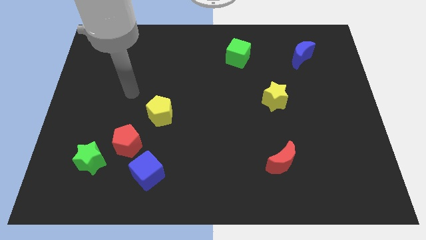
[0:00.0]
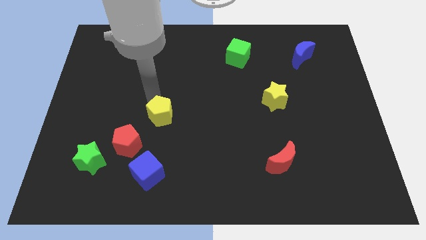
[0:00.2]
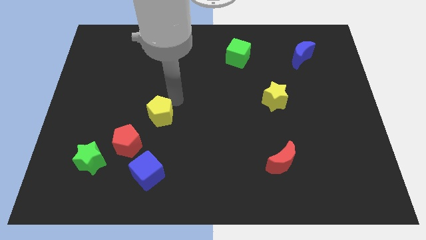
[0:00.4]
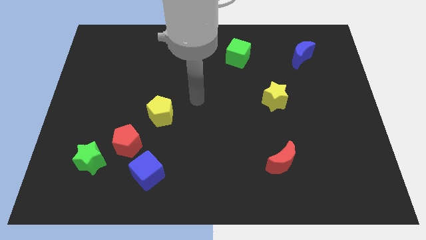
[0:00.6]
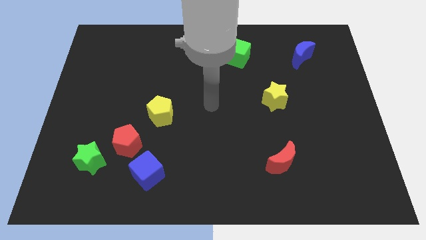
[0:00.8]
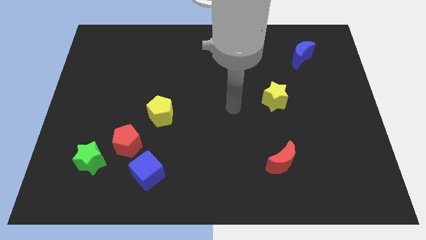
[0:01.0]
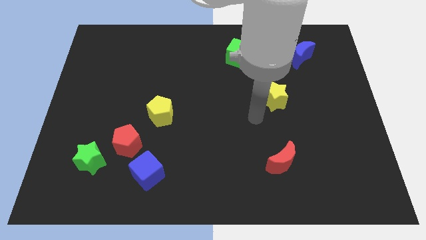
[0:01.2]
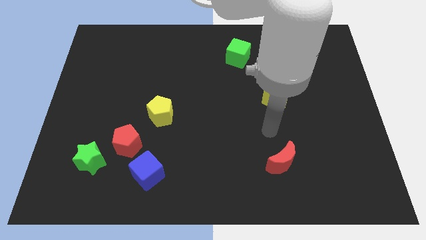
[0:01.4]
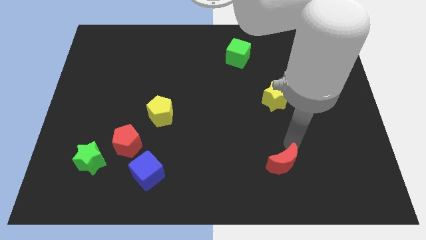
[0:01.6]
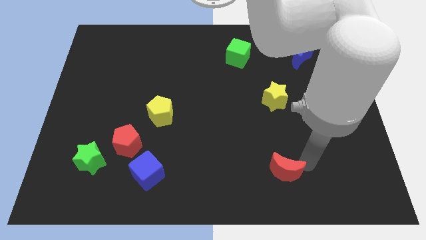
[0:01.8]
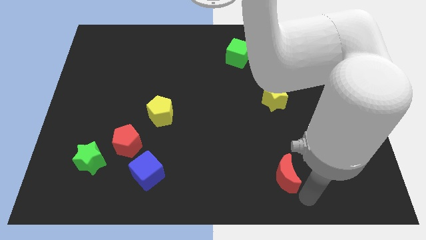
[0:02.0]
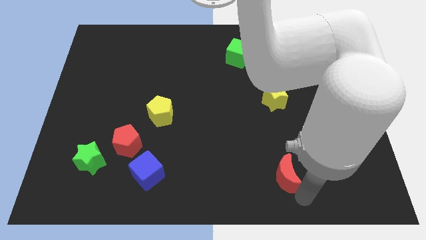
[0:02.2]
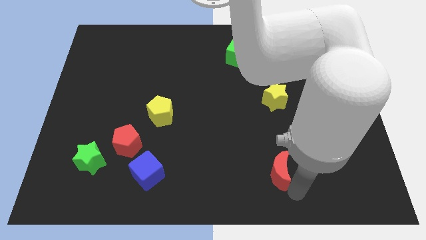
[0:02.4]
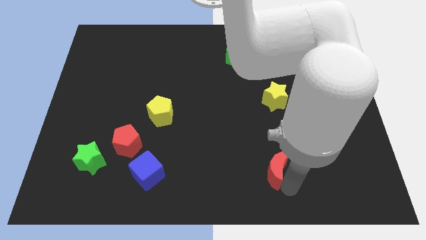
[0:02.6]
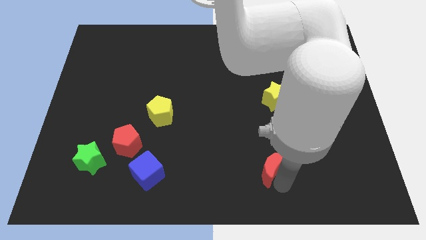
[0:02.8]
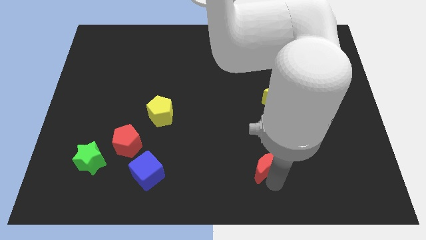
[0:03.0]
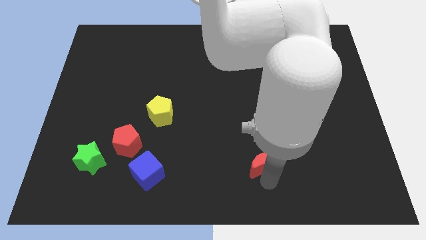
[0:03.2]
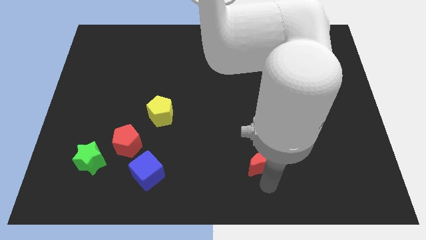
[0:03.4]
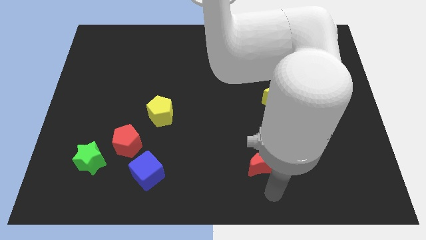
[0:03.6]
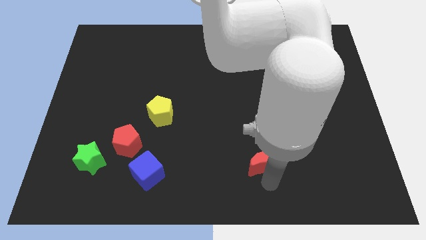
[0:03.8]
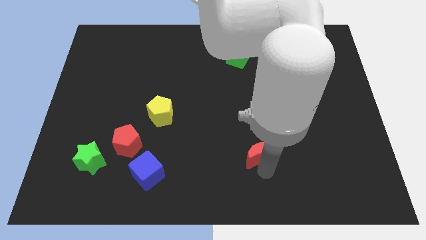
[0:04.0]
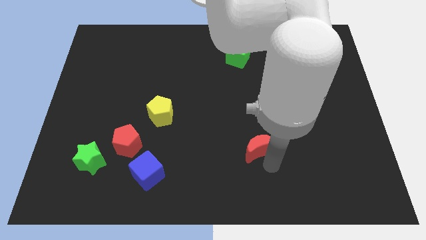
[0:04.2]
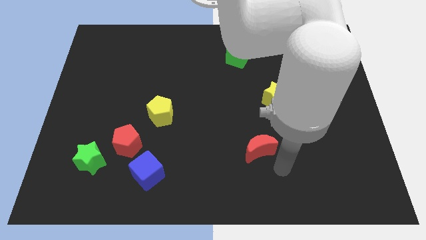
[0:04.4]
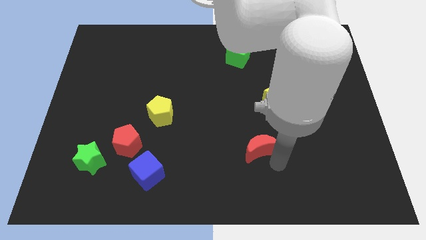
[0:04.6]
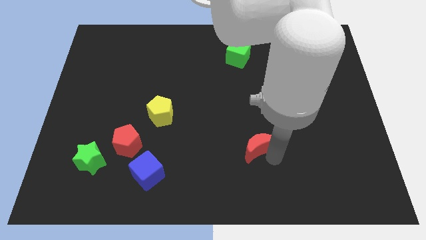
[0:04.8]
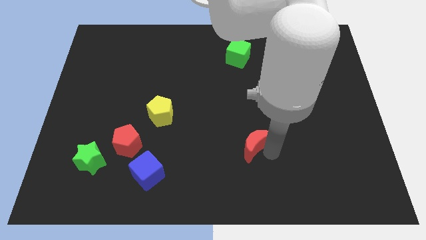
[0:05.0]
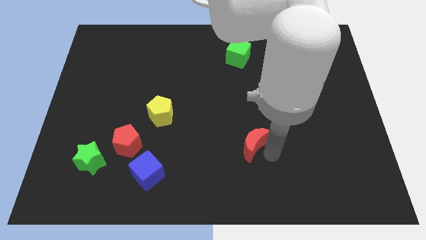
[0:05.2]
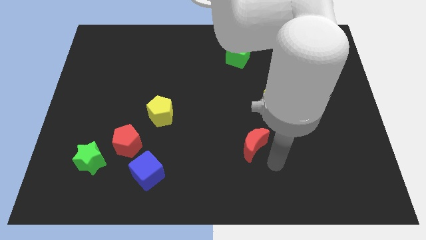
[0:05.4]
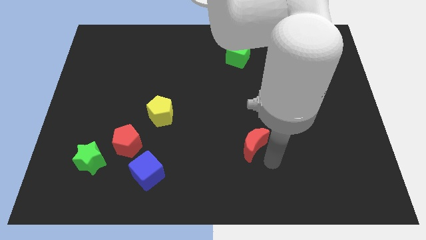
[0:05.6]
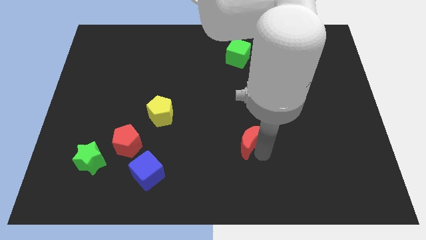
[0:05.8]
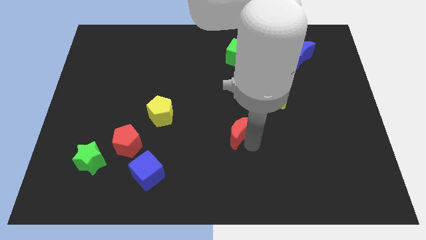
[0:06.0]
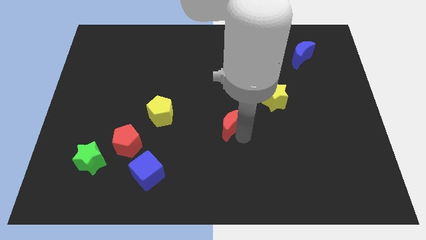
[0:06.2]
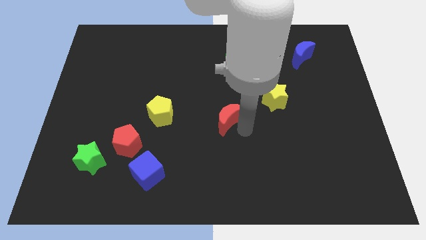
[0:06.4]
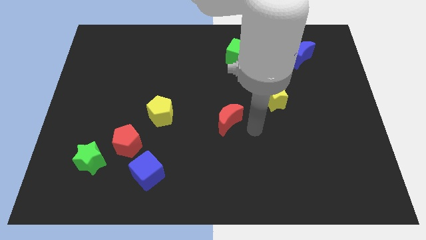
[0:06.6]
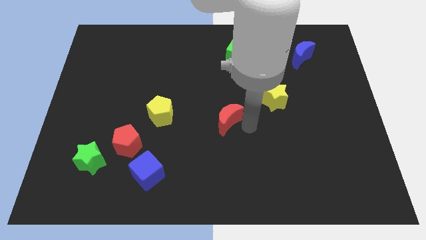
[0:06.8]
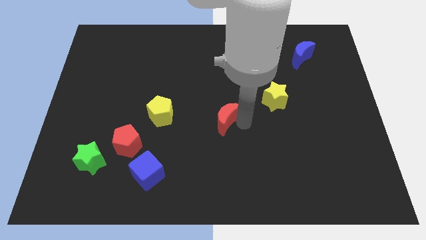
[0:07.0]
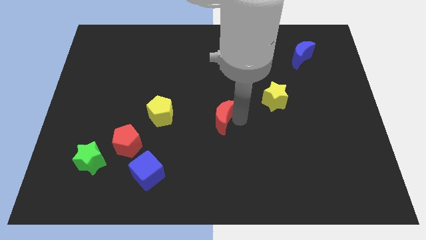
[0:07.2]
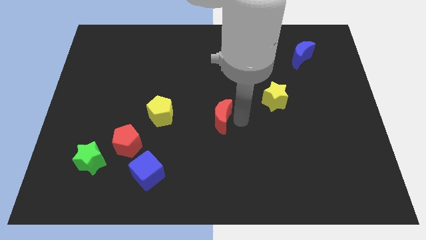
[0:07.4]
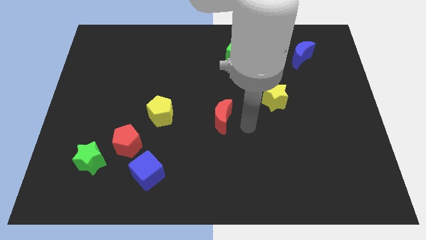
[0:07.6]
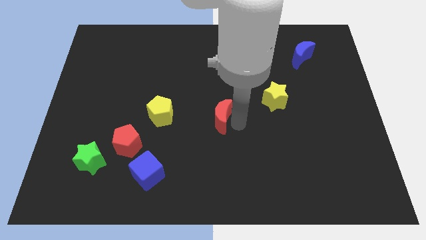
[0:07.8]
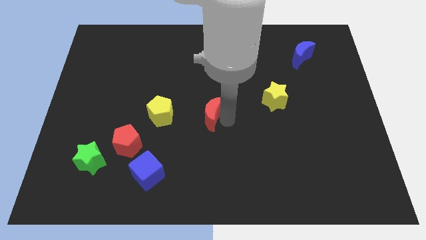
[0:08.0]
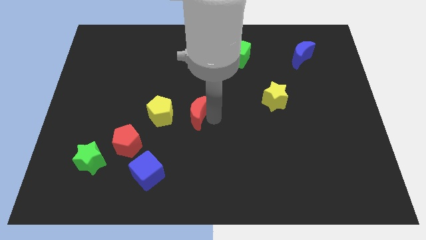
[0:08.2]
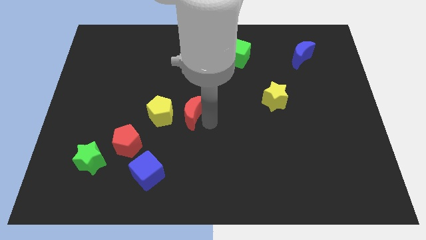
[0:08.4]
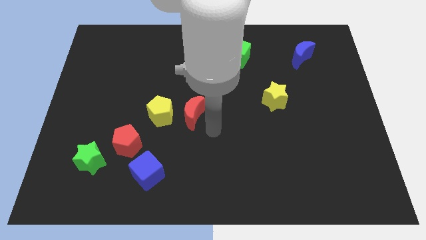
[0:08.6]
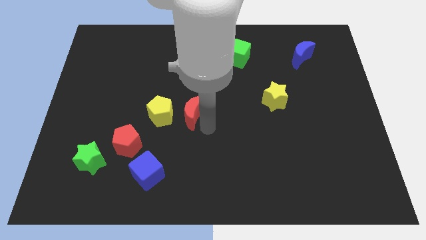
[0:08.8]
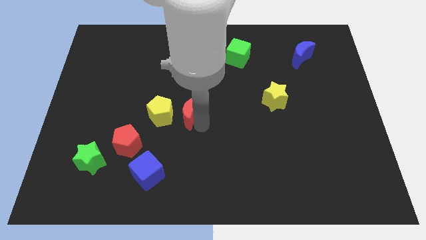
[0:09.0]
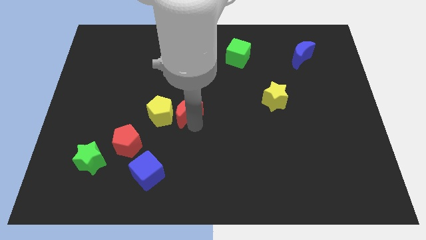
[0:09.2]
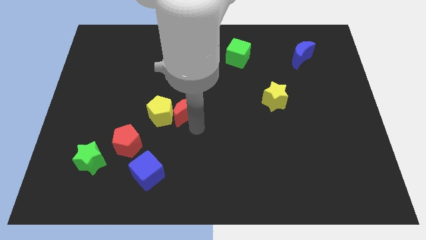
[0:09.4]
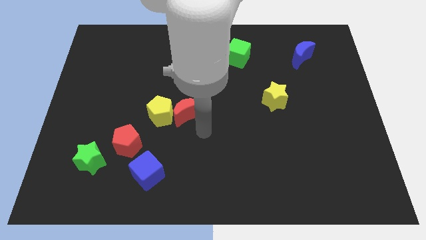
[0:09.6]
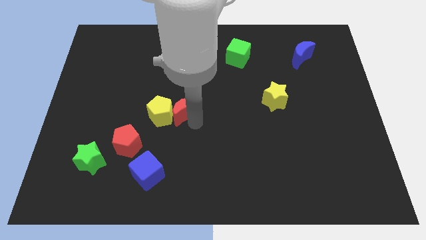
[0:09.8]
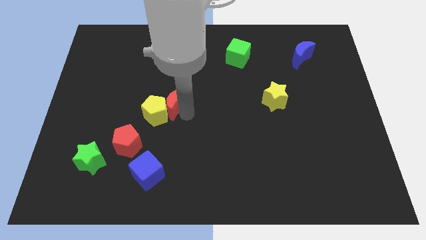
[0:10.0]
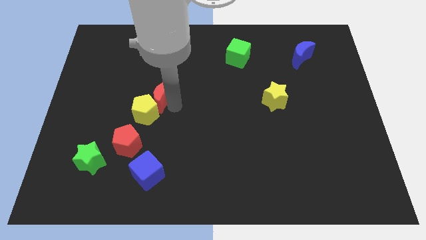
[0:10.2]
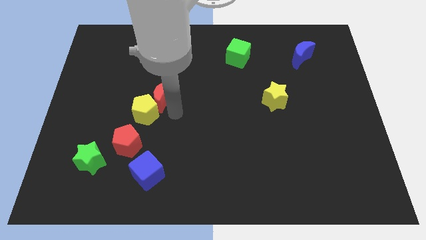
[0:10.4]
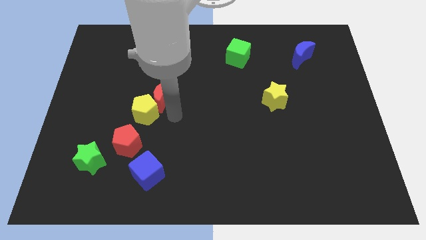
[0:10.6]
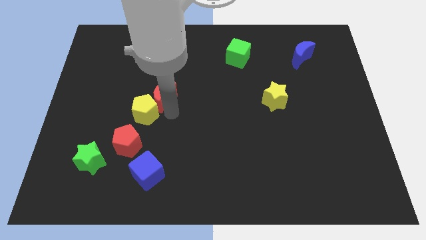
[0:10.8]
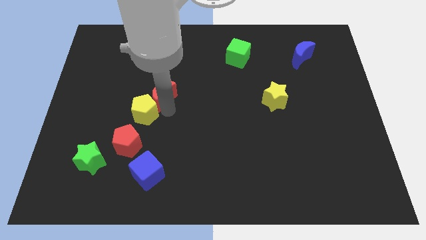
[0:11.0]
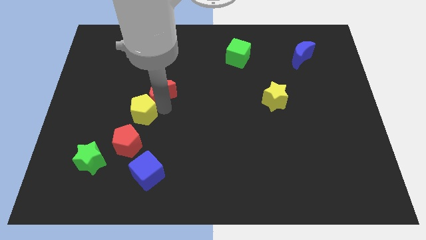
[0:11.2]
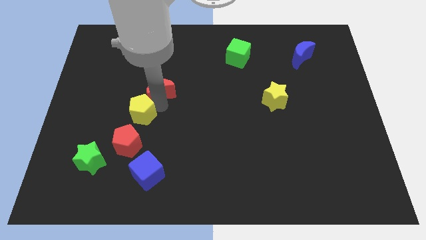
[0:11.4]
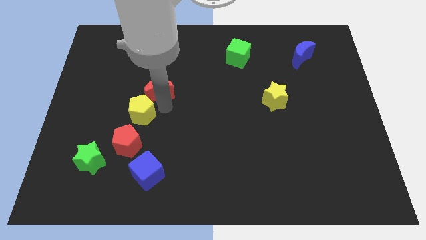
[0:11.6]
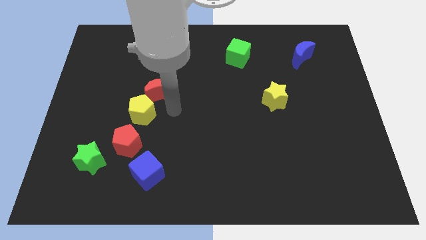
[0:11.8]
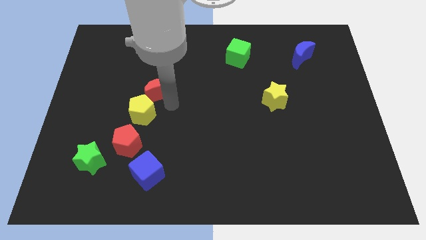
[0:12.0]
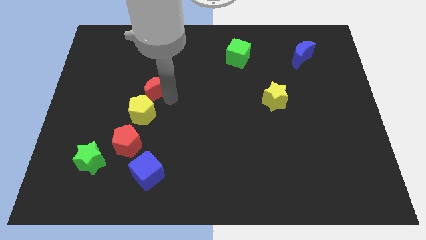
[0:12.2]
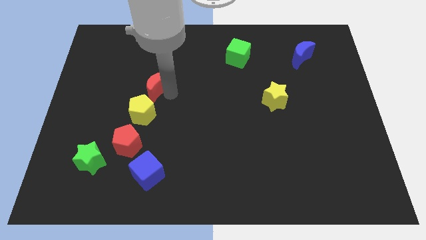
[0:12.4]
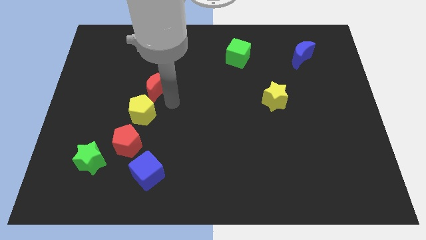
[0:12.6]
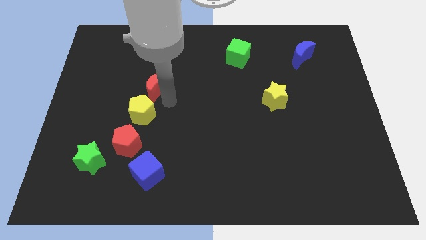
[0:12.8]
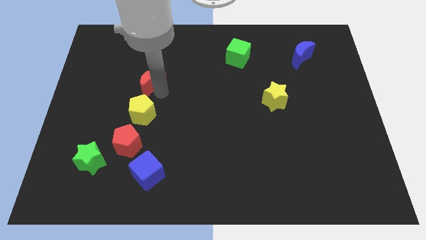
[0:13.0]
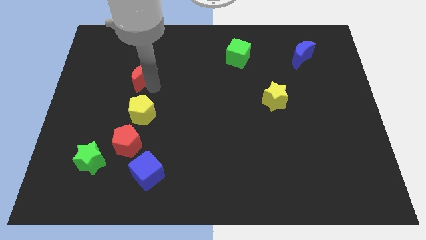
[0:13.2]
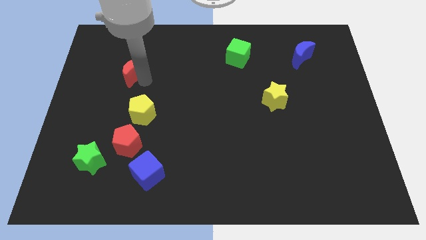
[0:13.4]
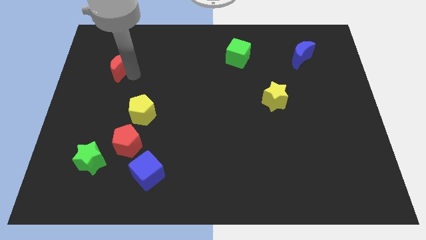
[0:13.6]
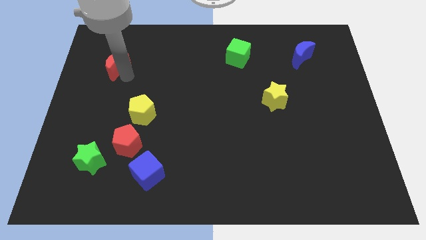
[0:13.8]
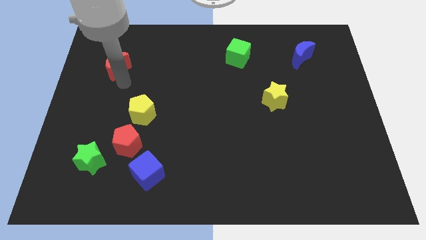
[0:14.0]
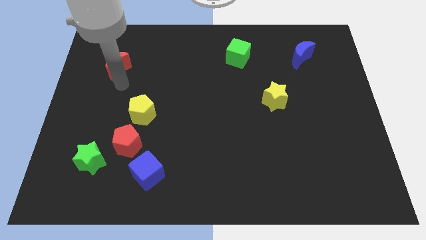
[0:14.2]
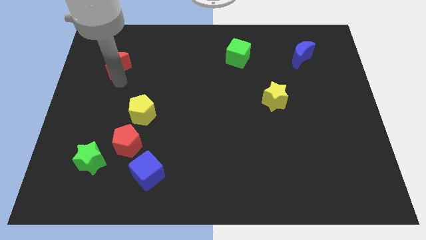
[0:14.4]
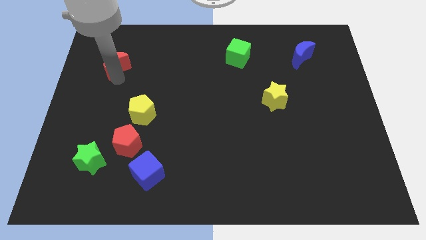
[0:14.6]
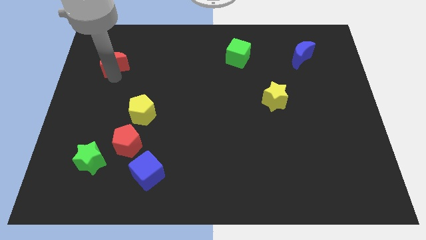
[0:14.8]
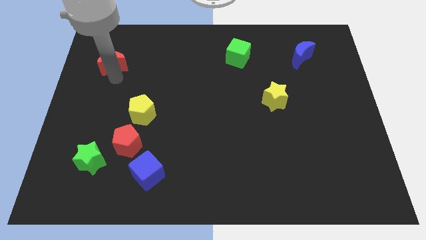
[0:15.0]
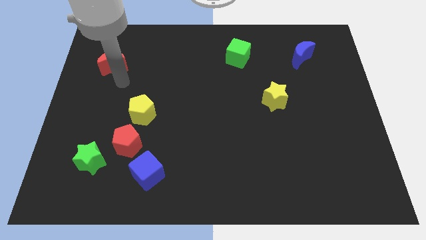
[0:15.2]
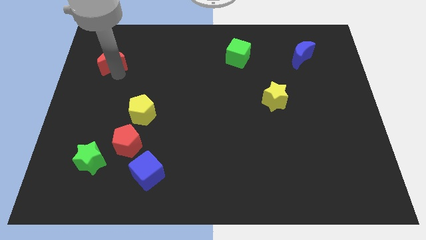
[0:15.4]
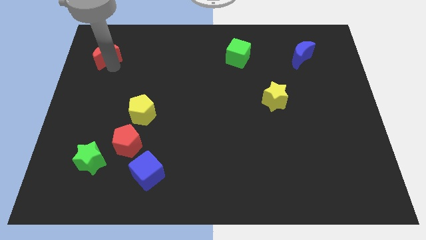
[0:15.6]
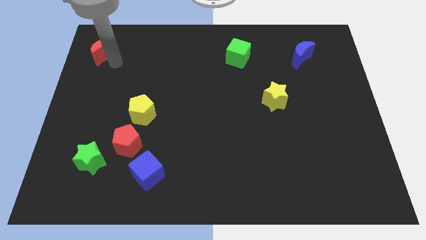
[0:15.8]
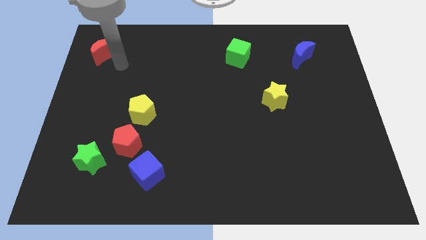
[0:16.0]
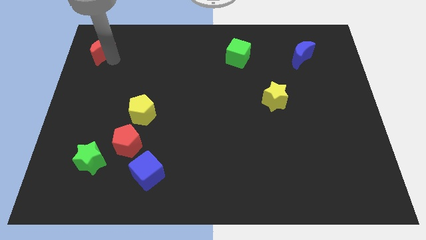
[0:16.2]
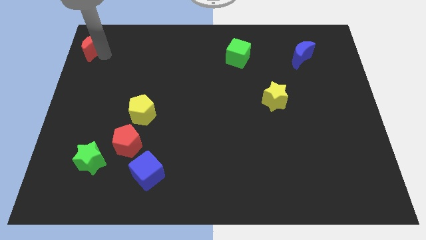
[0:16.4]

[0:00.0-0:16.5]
slide the red moon to the top left
